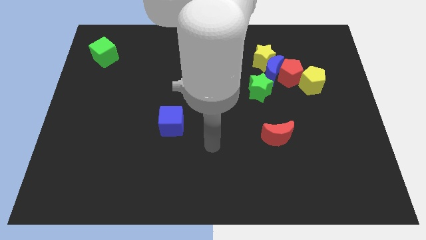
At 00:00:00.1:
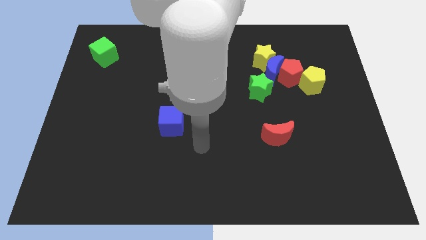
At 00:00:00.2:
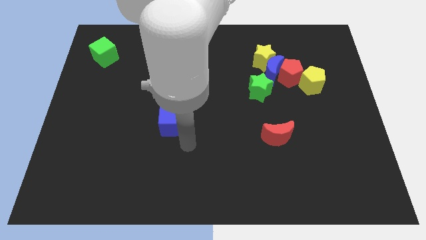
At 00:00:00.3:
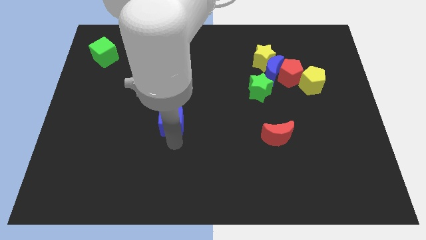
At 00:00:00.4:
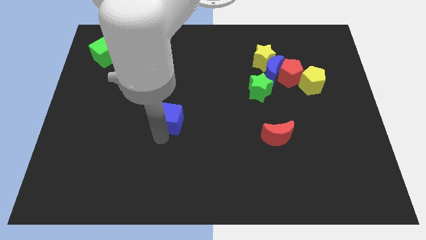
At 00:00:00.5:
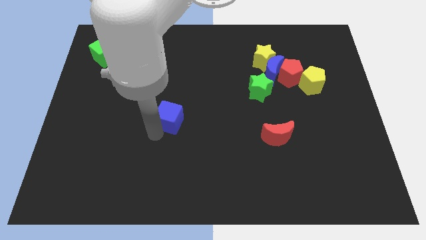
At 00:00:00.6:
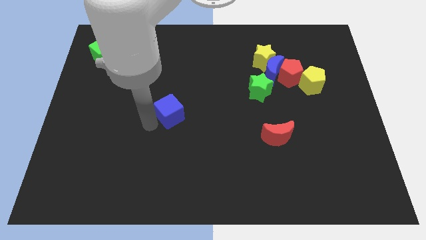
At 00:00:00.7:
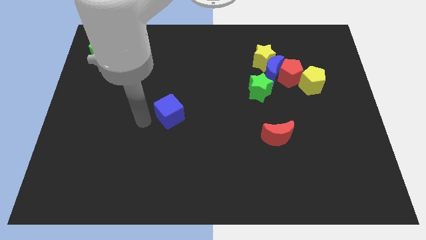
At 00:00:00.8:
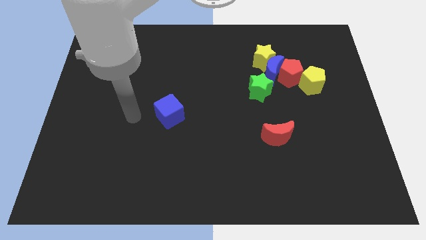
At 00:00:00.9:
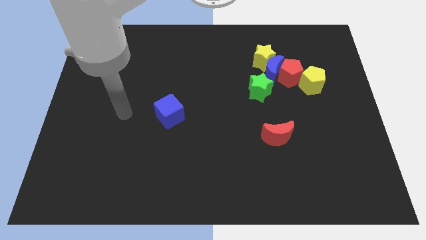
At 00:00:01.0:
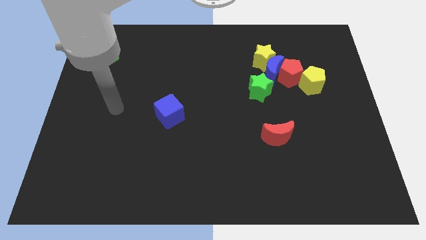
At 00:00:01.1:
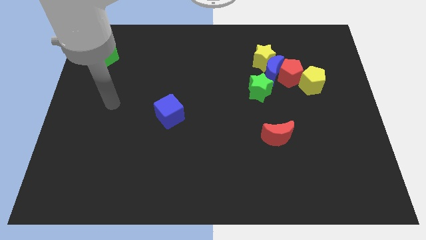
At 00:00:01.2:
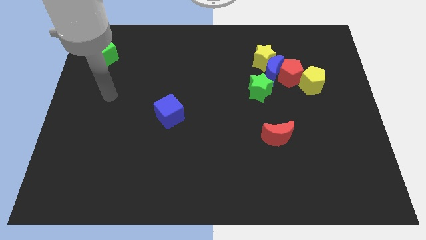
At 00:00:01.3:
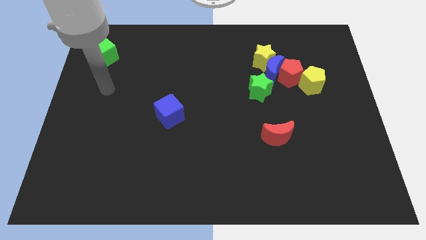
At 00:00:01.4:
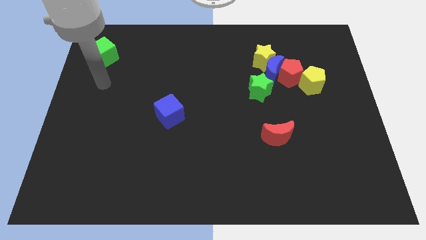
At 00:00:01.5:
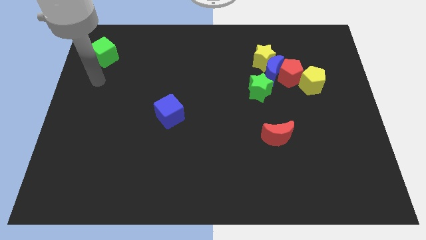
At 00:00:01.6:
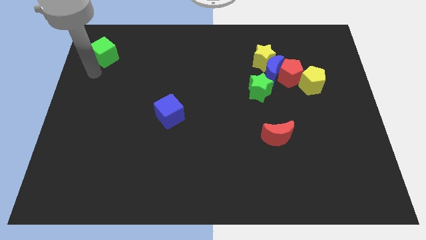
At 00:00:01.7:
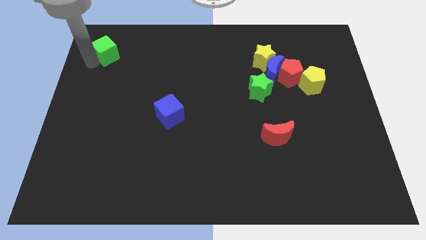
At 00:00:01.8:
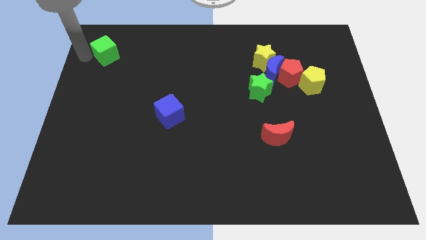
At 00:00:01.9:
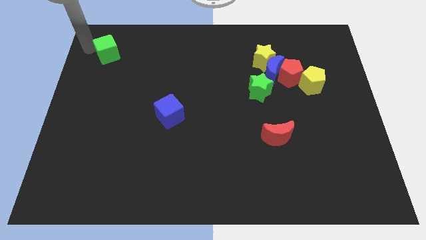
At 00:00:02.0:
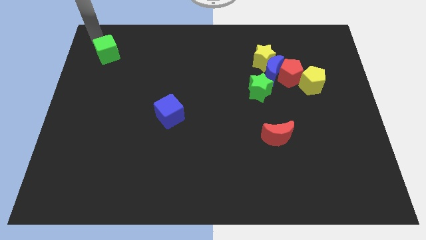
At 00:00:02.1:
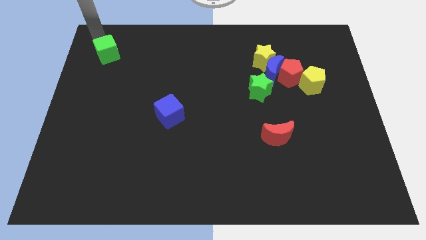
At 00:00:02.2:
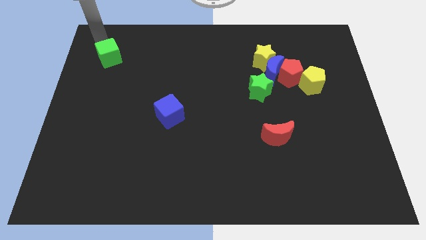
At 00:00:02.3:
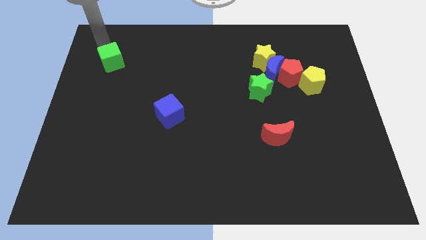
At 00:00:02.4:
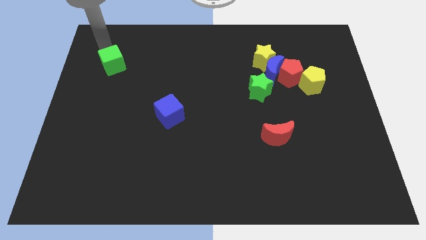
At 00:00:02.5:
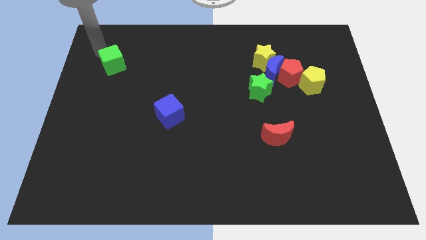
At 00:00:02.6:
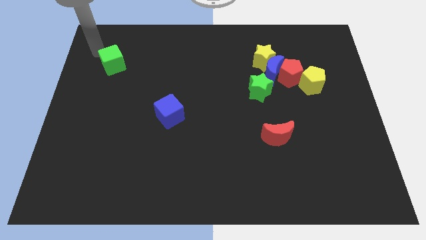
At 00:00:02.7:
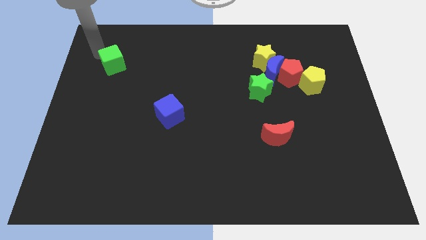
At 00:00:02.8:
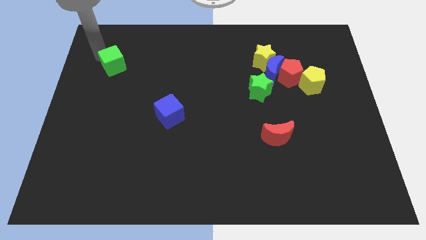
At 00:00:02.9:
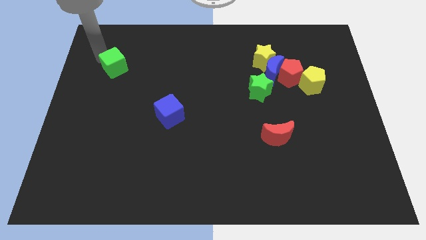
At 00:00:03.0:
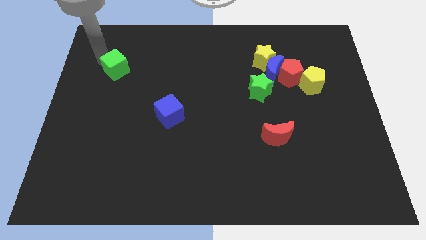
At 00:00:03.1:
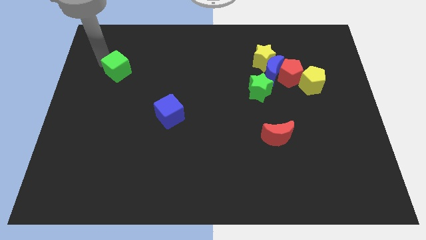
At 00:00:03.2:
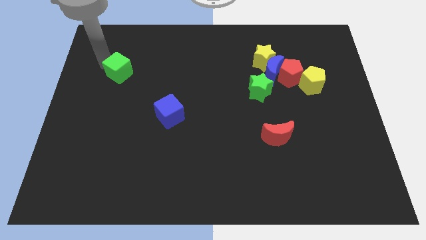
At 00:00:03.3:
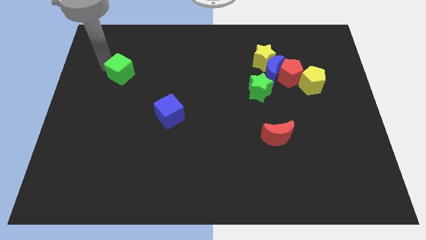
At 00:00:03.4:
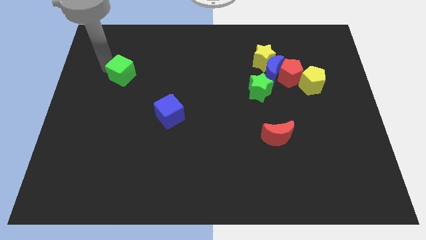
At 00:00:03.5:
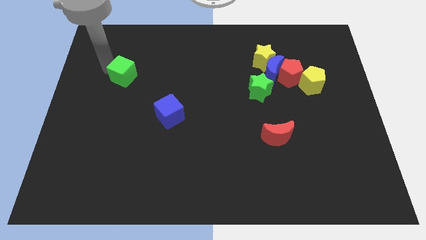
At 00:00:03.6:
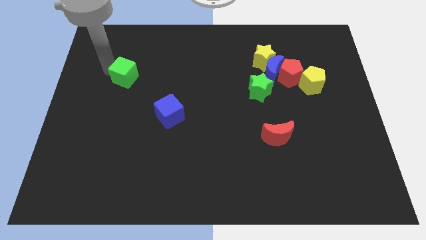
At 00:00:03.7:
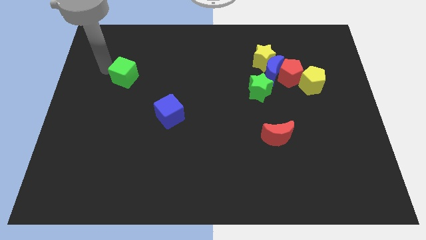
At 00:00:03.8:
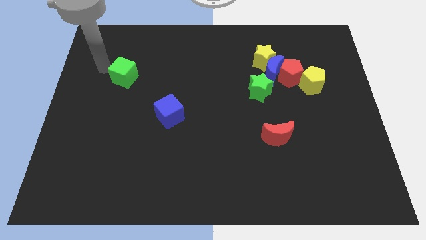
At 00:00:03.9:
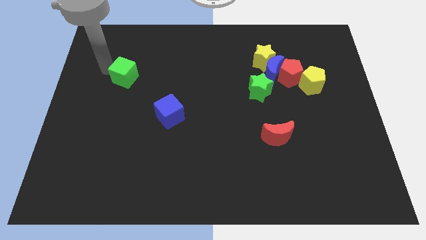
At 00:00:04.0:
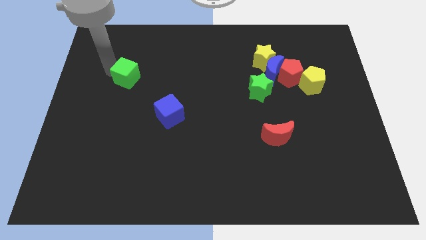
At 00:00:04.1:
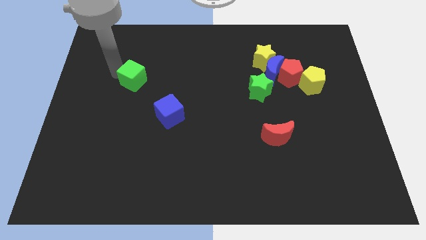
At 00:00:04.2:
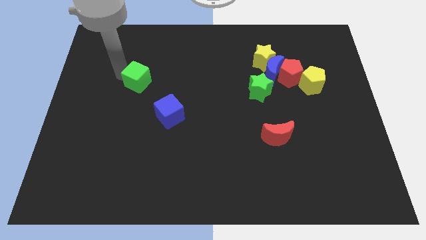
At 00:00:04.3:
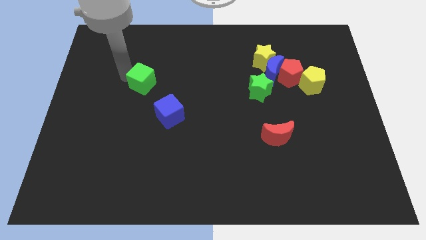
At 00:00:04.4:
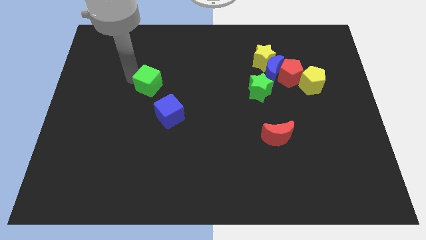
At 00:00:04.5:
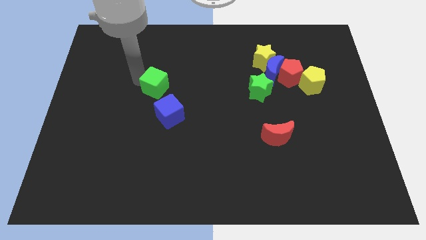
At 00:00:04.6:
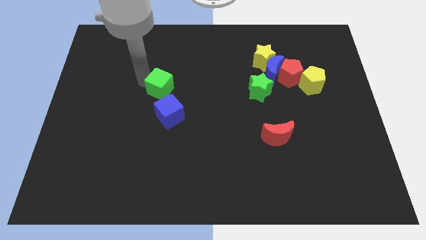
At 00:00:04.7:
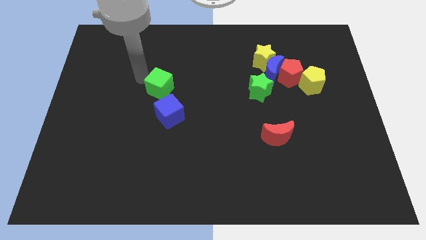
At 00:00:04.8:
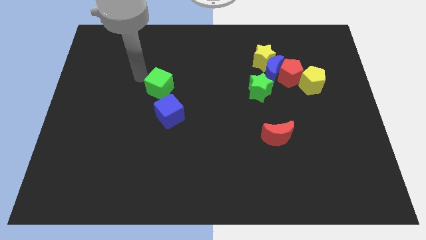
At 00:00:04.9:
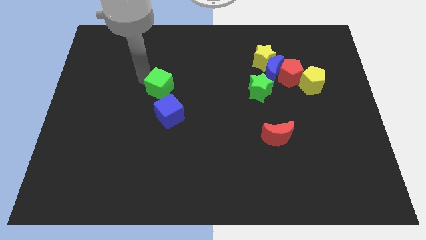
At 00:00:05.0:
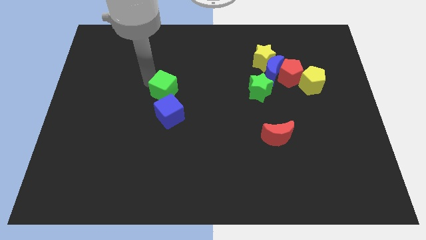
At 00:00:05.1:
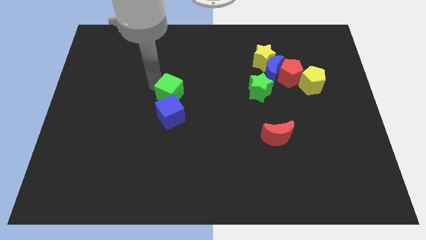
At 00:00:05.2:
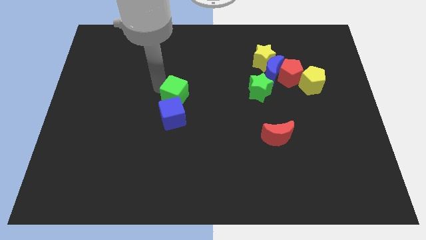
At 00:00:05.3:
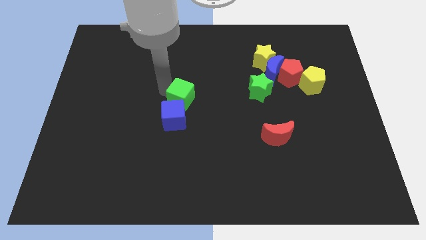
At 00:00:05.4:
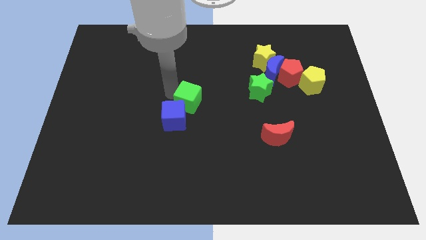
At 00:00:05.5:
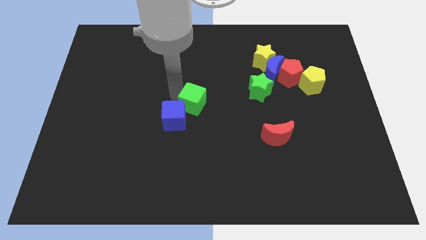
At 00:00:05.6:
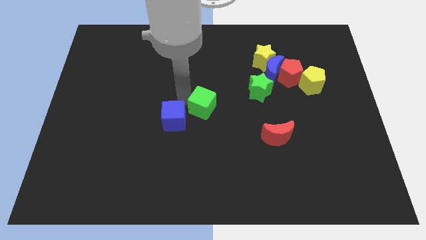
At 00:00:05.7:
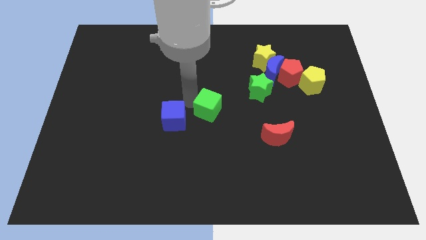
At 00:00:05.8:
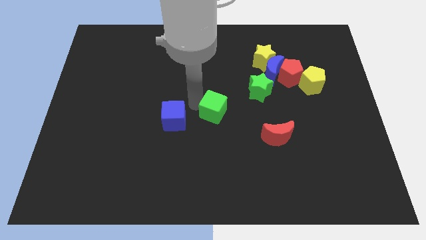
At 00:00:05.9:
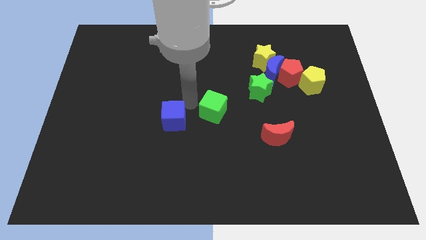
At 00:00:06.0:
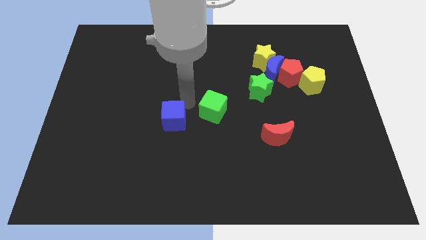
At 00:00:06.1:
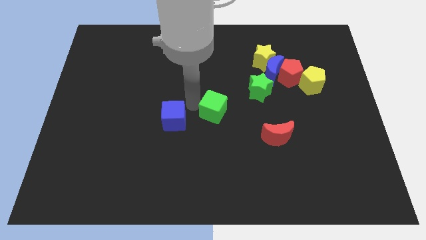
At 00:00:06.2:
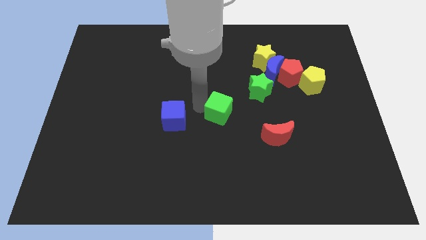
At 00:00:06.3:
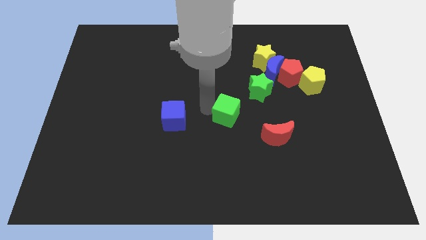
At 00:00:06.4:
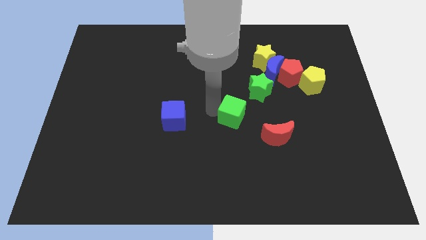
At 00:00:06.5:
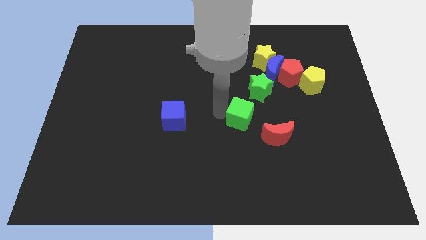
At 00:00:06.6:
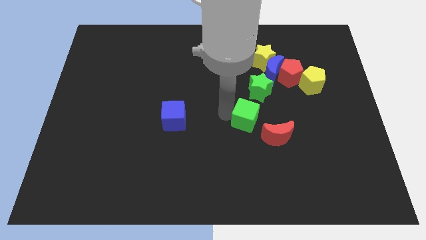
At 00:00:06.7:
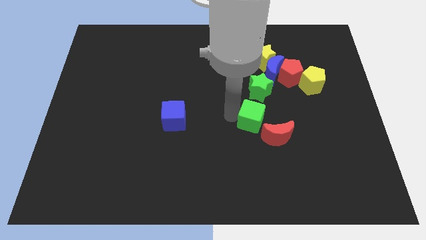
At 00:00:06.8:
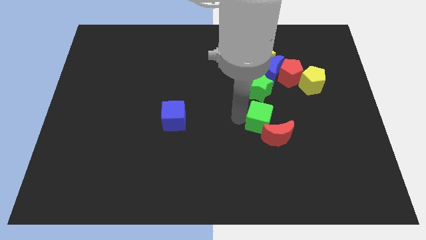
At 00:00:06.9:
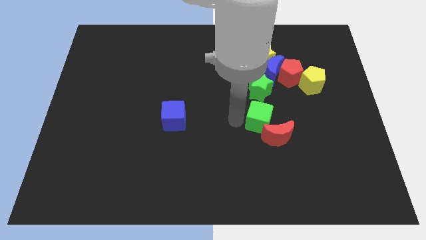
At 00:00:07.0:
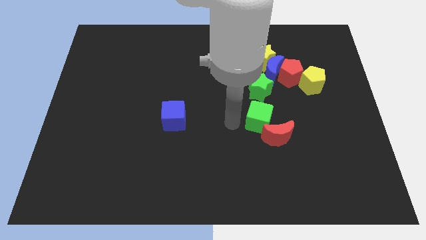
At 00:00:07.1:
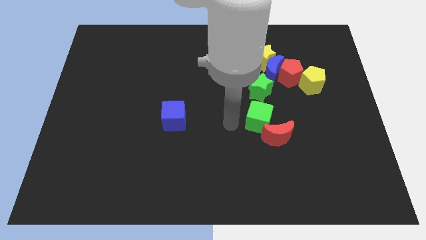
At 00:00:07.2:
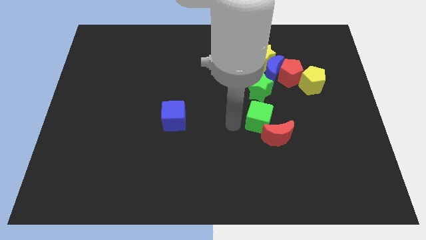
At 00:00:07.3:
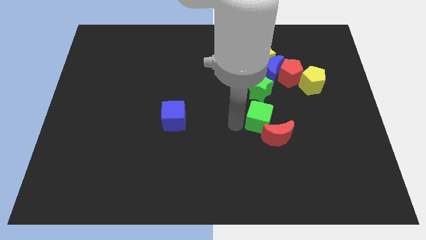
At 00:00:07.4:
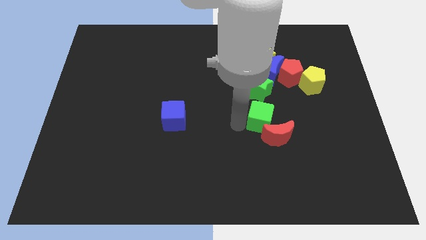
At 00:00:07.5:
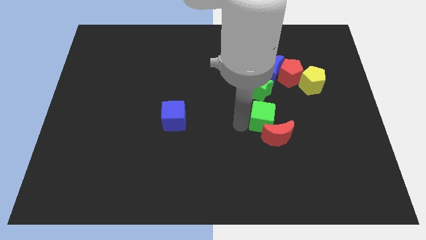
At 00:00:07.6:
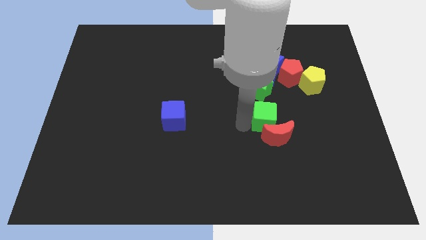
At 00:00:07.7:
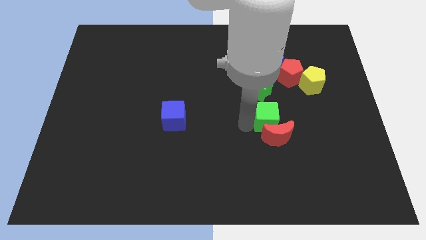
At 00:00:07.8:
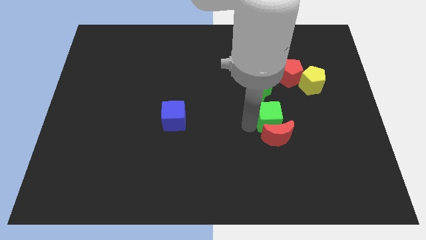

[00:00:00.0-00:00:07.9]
slide the green cube diagonally up and to the right of the red moon

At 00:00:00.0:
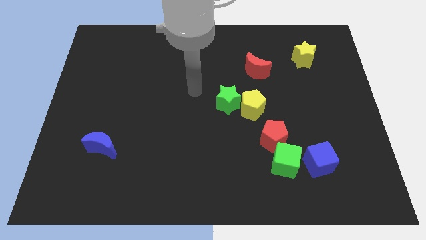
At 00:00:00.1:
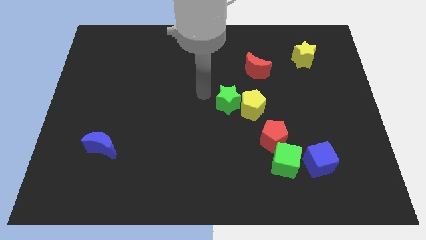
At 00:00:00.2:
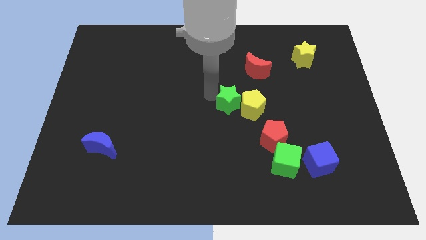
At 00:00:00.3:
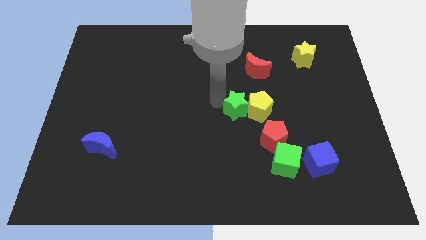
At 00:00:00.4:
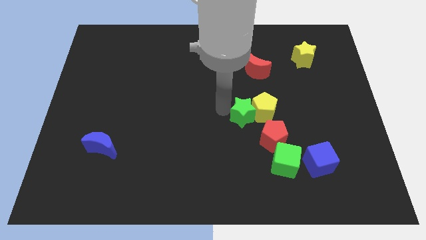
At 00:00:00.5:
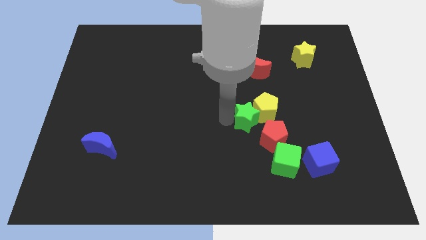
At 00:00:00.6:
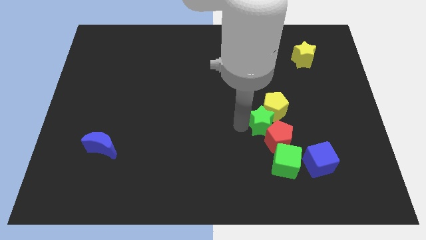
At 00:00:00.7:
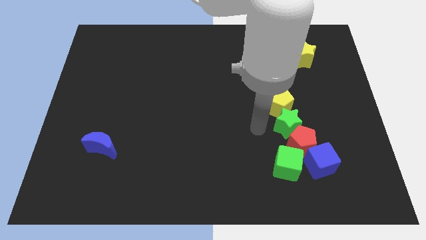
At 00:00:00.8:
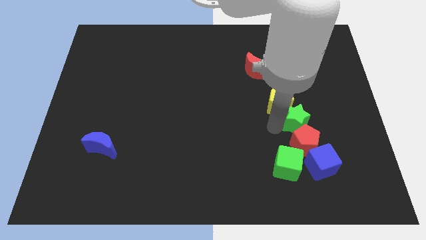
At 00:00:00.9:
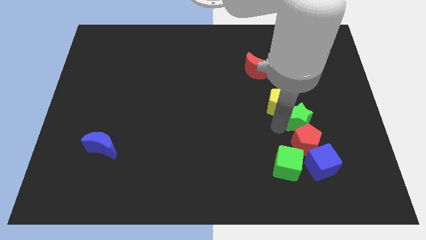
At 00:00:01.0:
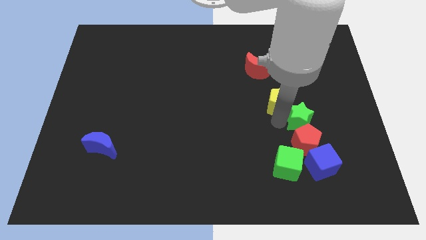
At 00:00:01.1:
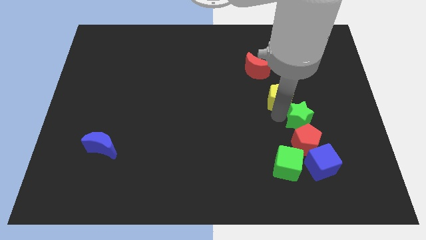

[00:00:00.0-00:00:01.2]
push the yellow pentagon to the bottom right side of the red moon
